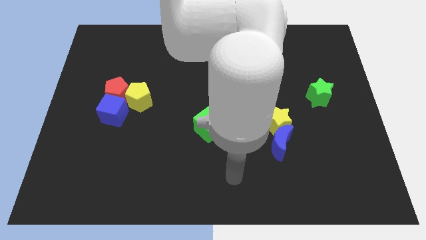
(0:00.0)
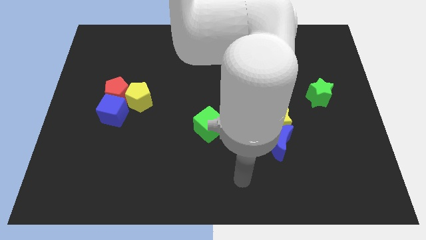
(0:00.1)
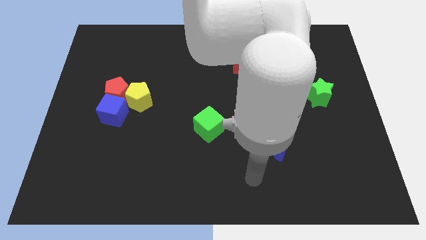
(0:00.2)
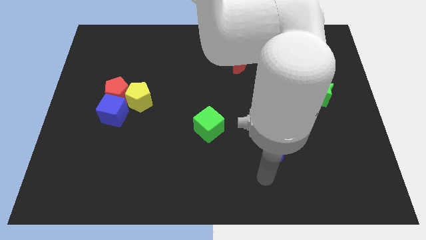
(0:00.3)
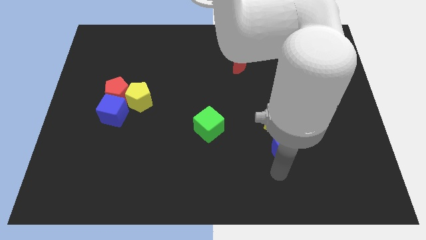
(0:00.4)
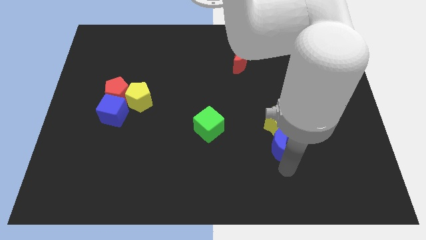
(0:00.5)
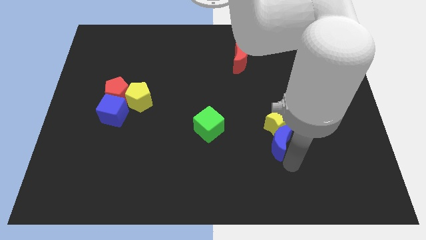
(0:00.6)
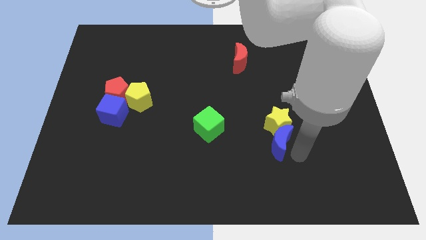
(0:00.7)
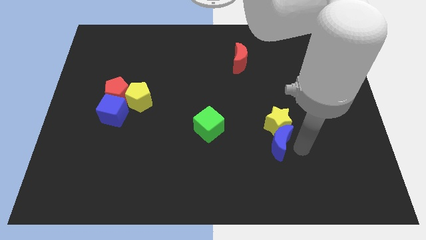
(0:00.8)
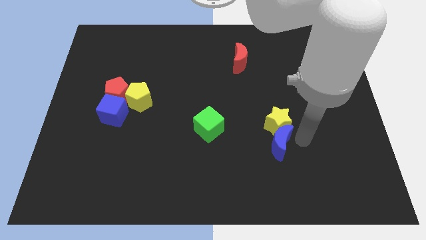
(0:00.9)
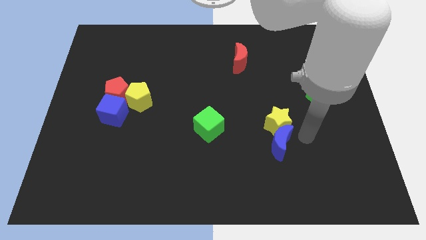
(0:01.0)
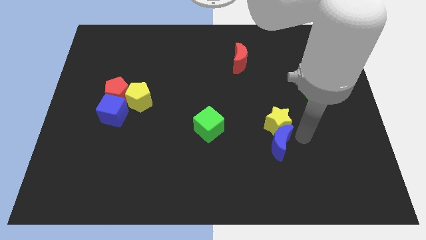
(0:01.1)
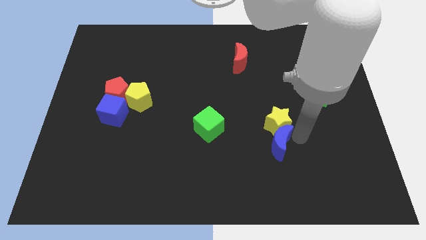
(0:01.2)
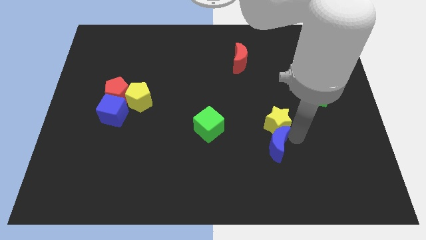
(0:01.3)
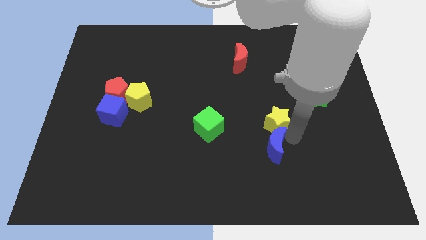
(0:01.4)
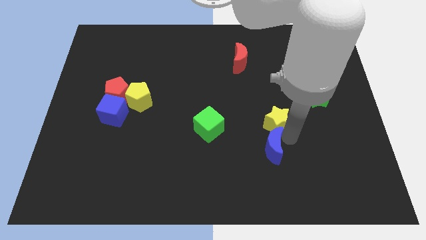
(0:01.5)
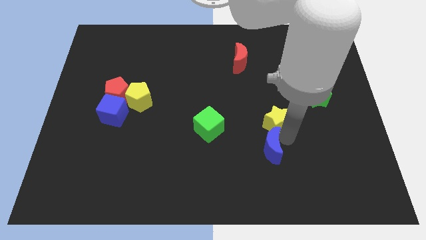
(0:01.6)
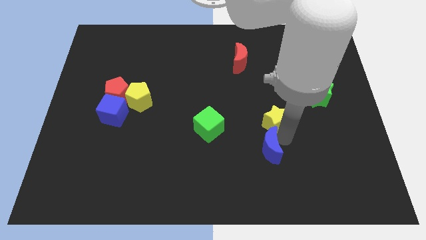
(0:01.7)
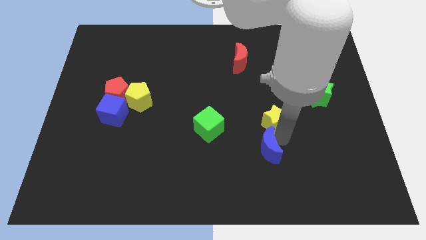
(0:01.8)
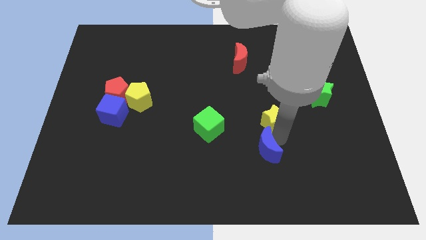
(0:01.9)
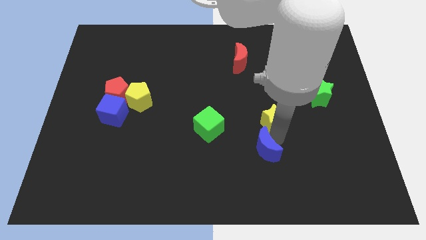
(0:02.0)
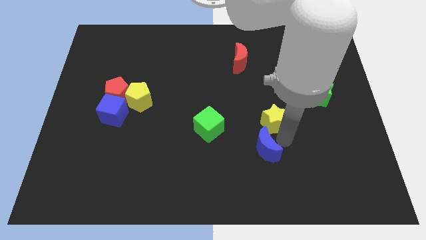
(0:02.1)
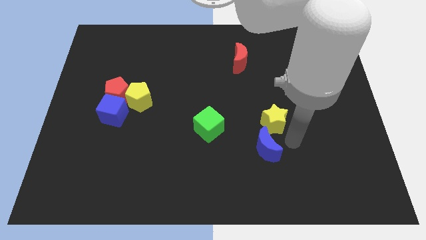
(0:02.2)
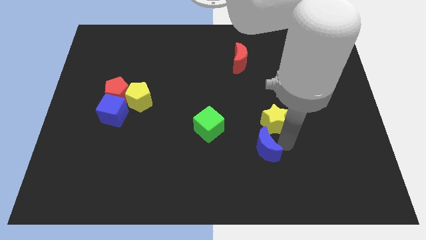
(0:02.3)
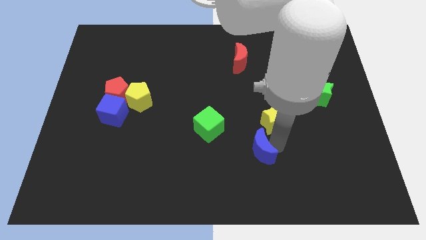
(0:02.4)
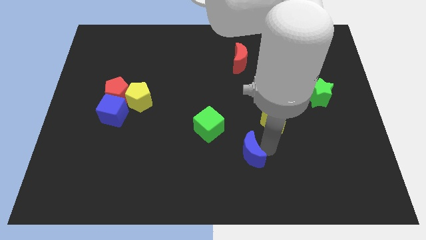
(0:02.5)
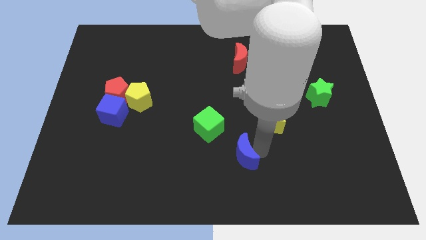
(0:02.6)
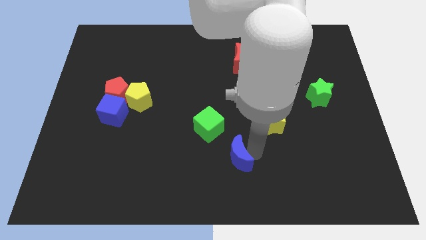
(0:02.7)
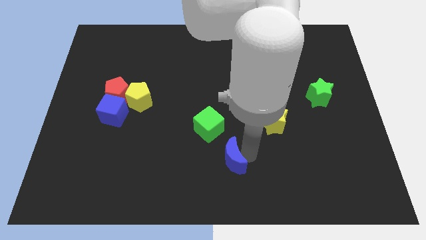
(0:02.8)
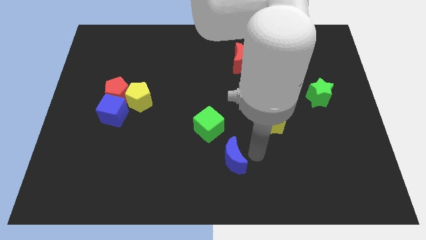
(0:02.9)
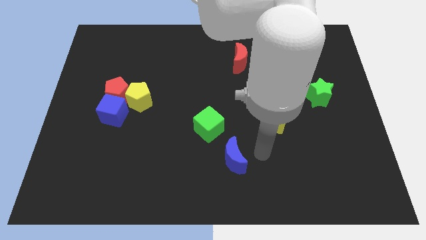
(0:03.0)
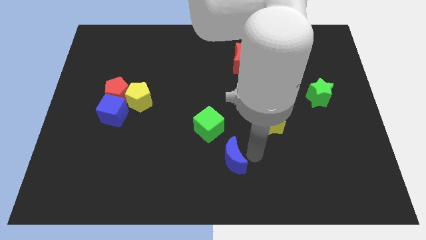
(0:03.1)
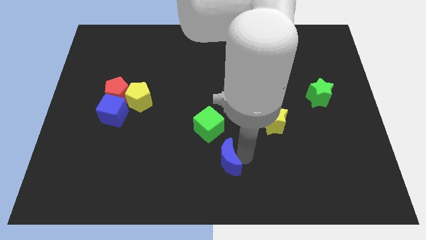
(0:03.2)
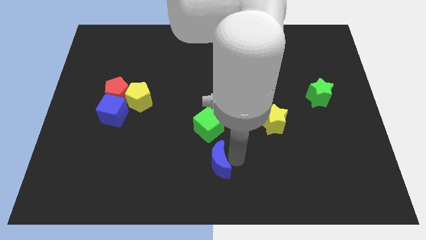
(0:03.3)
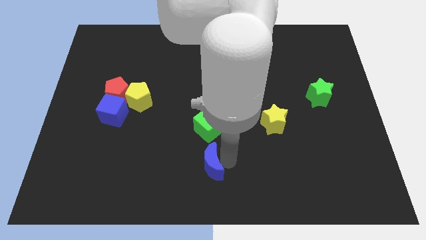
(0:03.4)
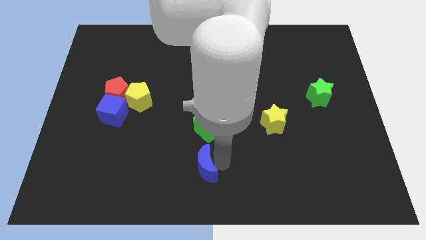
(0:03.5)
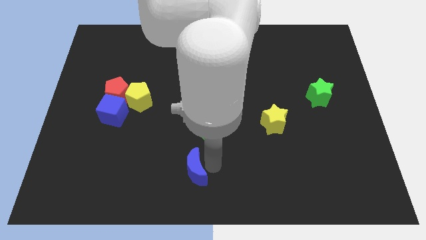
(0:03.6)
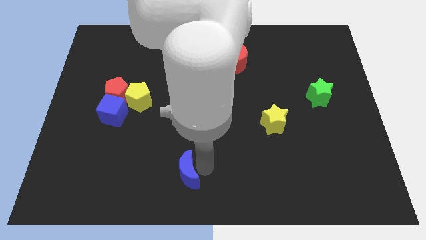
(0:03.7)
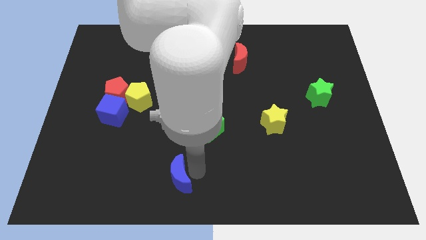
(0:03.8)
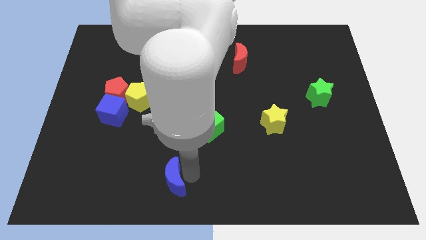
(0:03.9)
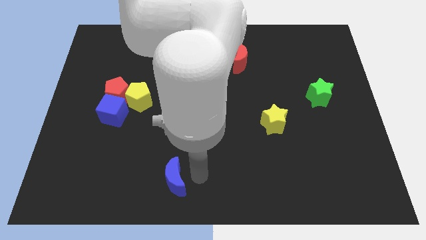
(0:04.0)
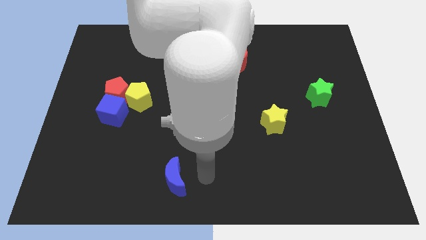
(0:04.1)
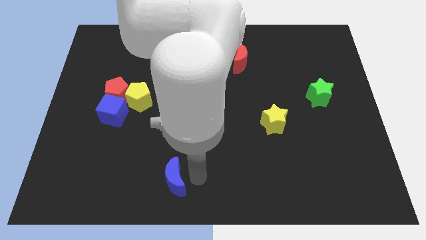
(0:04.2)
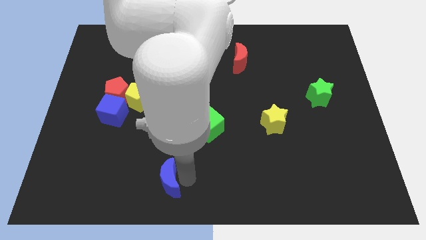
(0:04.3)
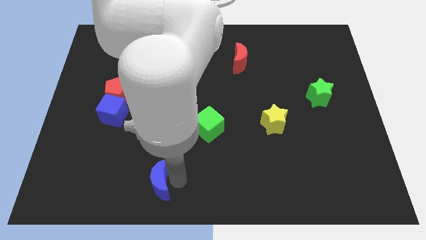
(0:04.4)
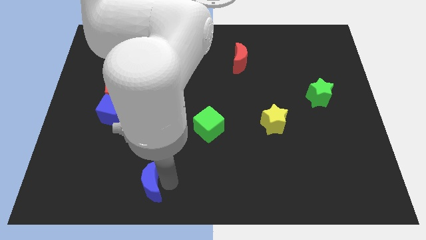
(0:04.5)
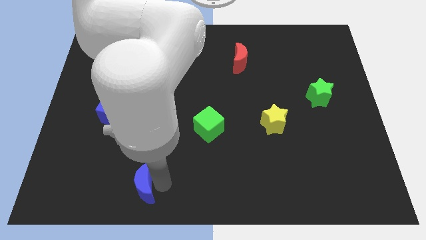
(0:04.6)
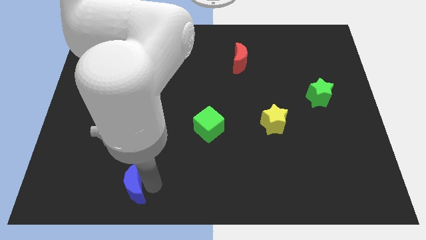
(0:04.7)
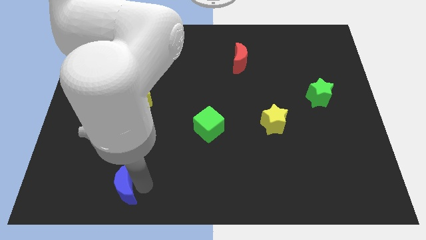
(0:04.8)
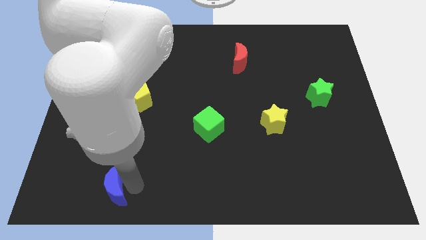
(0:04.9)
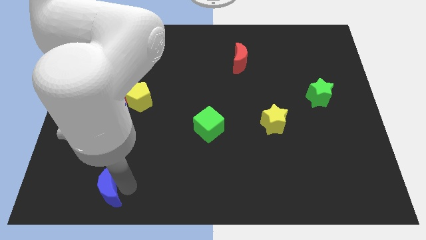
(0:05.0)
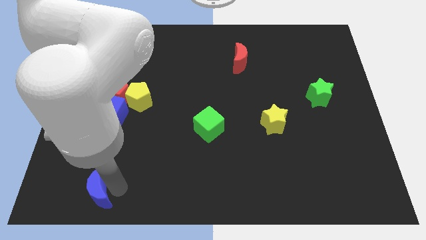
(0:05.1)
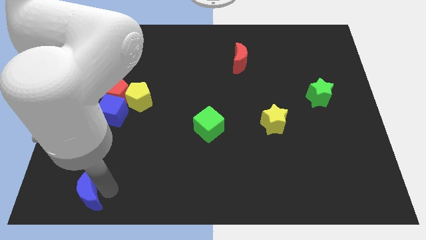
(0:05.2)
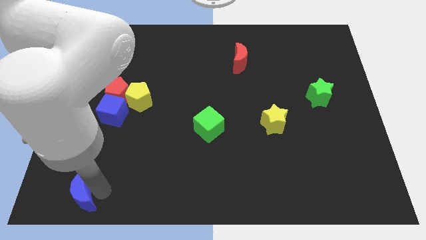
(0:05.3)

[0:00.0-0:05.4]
move the blue moon to the lower left corner

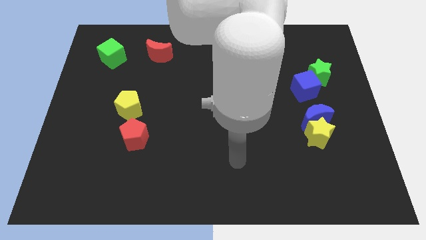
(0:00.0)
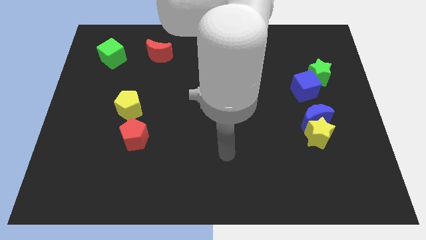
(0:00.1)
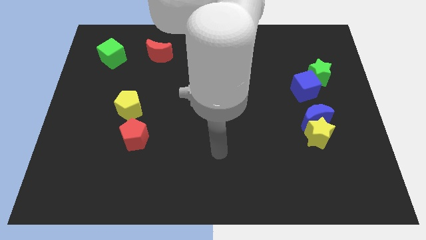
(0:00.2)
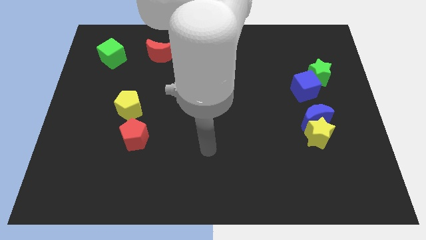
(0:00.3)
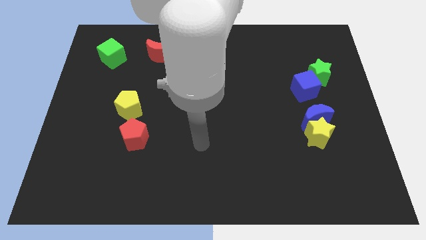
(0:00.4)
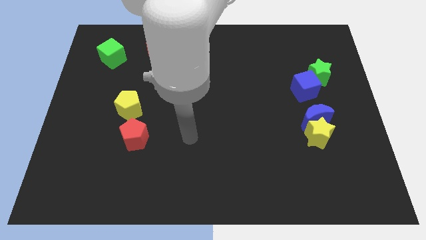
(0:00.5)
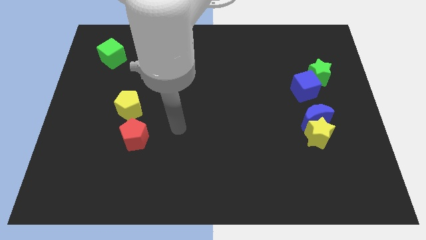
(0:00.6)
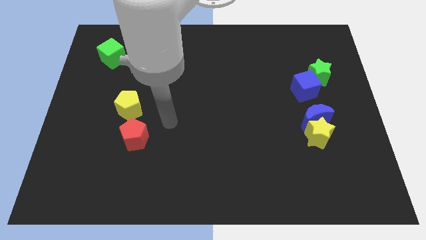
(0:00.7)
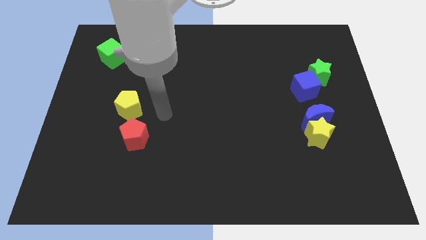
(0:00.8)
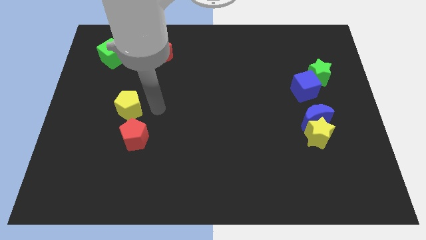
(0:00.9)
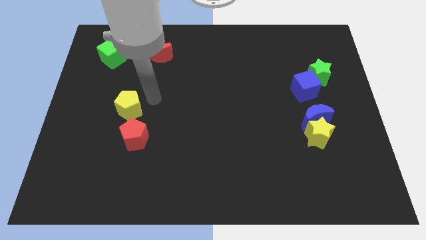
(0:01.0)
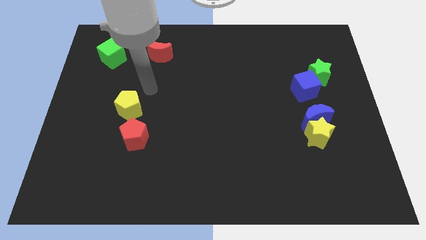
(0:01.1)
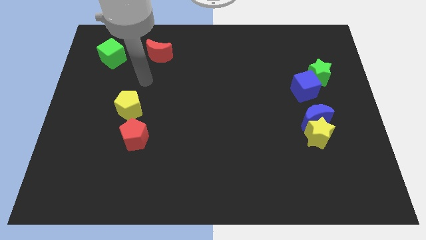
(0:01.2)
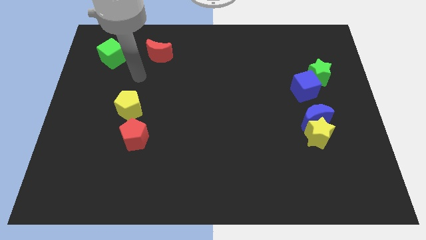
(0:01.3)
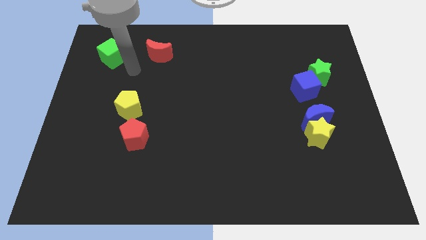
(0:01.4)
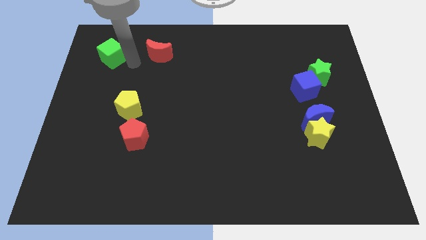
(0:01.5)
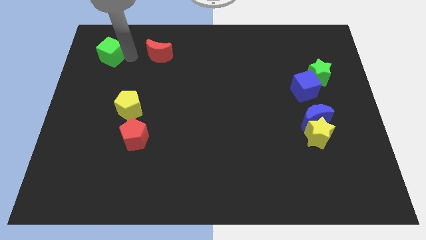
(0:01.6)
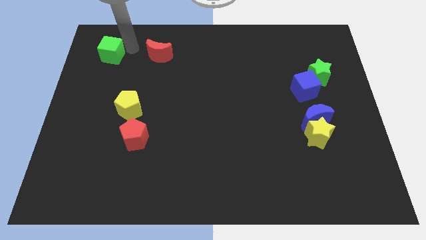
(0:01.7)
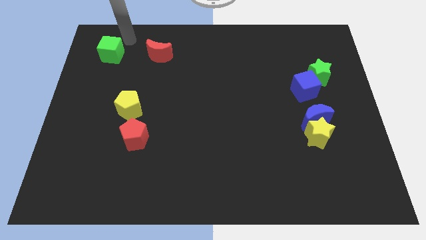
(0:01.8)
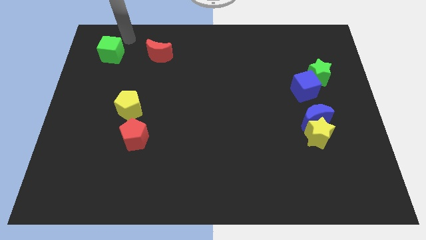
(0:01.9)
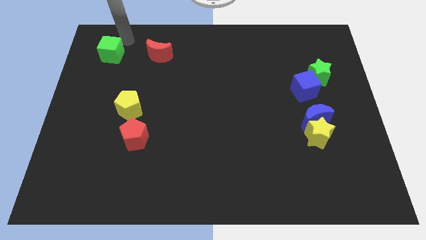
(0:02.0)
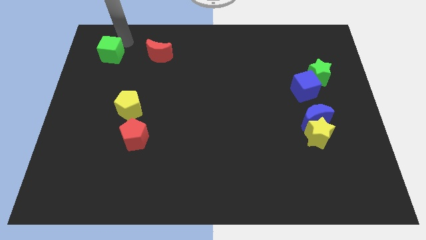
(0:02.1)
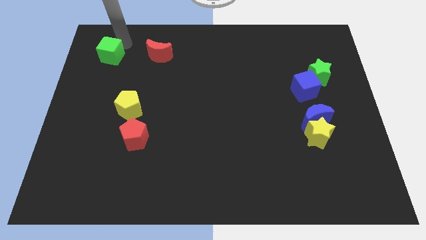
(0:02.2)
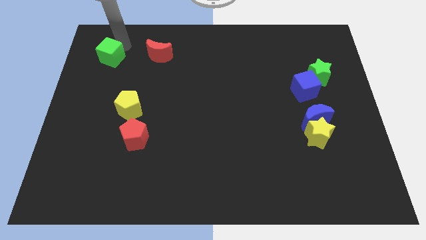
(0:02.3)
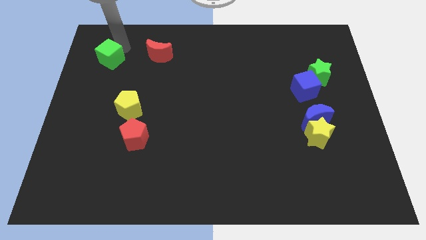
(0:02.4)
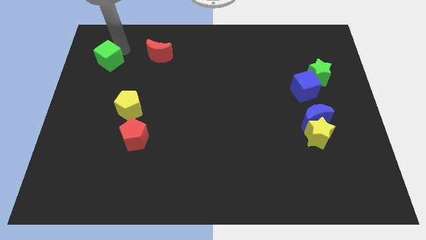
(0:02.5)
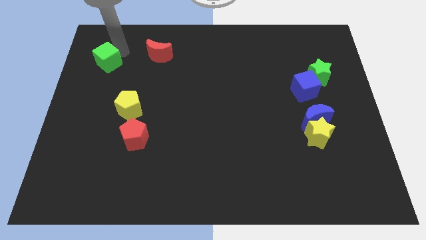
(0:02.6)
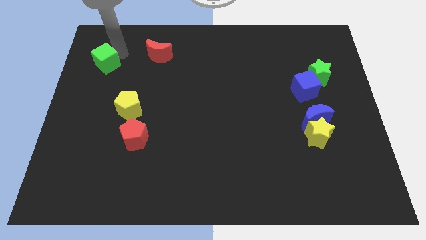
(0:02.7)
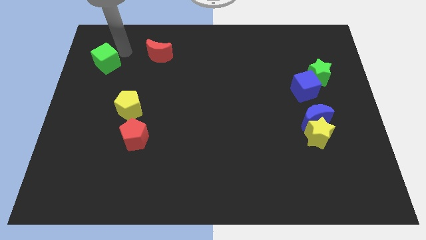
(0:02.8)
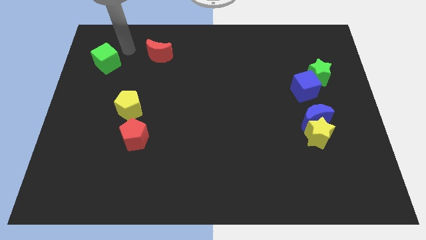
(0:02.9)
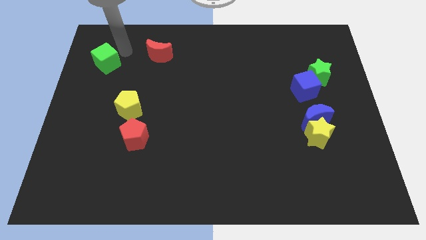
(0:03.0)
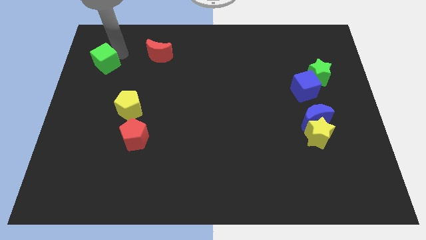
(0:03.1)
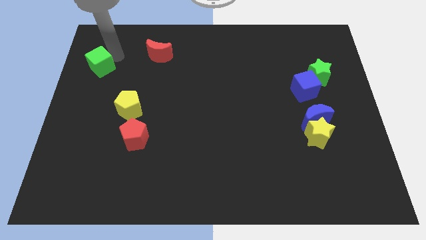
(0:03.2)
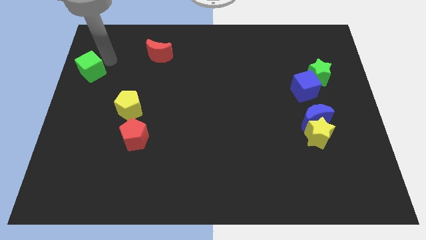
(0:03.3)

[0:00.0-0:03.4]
move the green cube to the left side of the board
